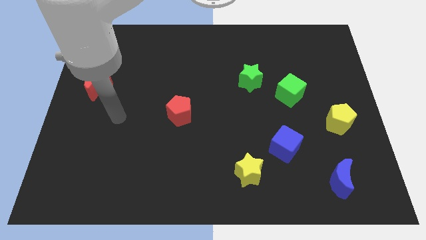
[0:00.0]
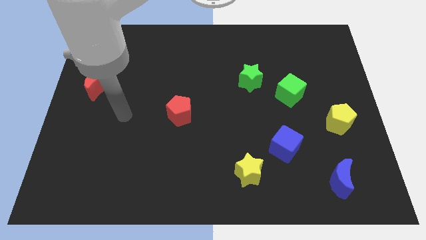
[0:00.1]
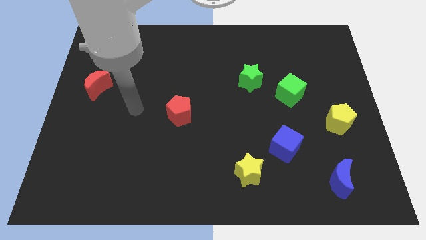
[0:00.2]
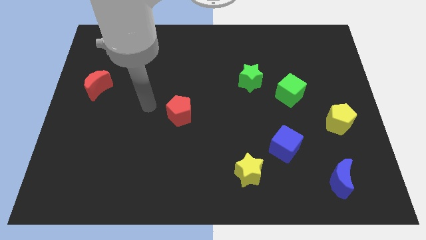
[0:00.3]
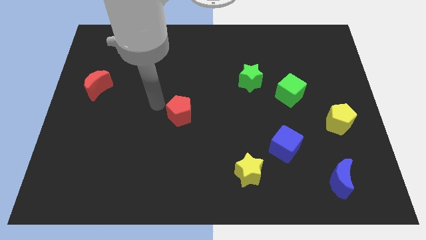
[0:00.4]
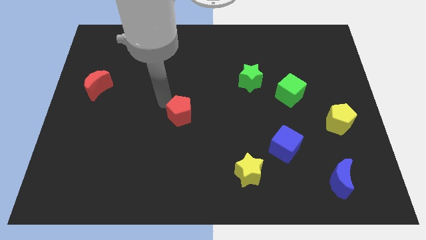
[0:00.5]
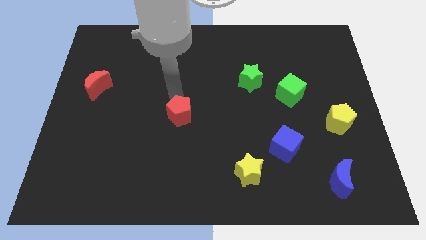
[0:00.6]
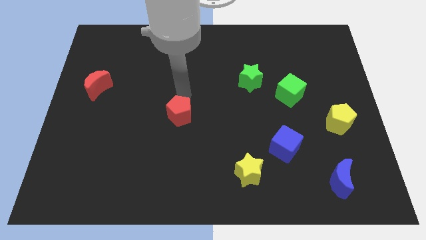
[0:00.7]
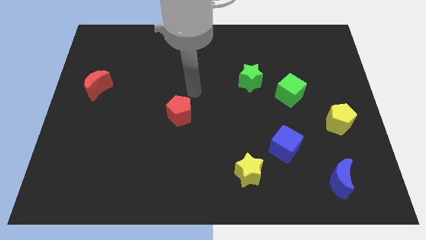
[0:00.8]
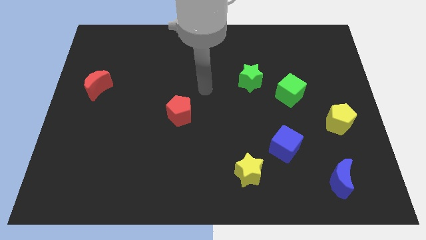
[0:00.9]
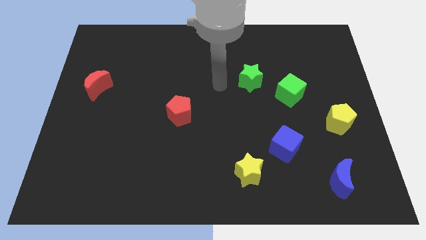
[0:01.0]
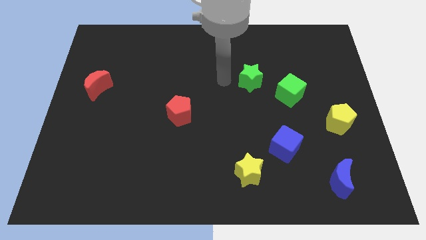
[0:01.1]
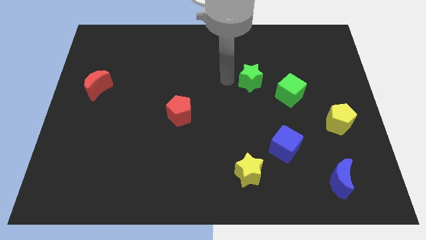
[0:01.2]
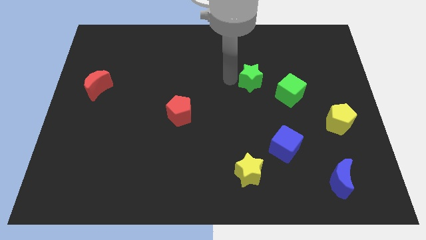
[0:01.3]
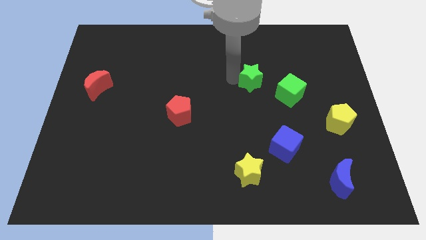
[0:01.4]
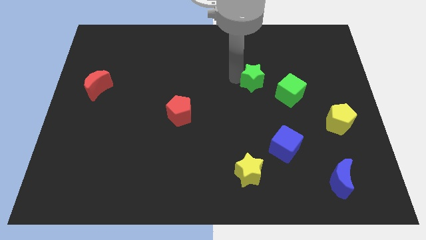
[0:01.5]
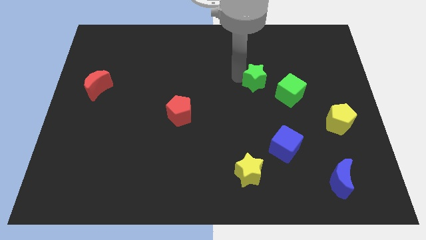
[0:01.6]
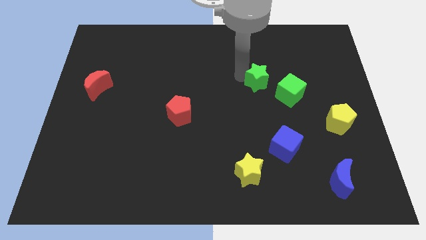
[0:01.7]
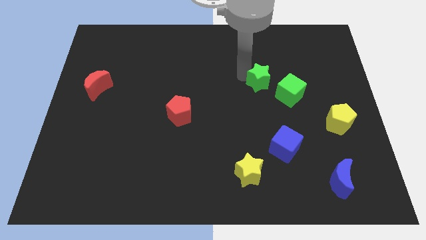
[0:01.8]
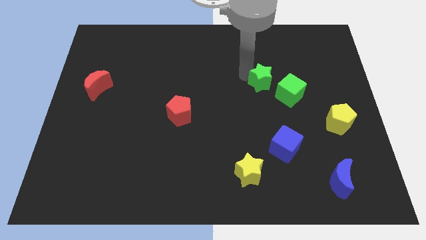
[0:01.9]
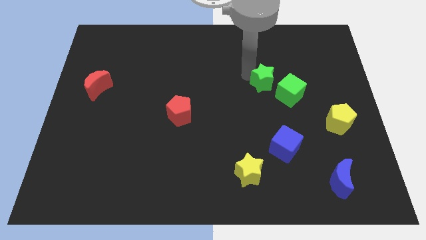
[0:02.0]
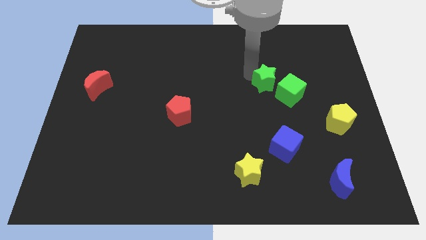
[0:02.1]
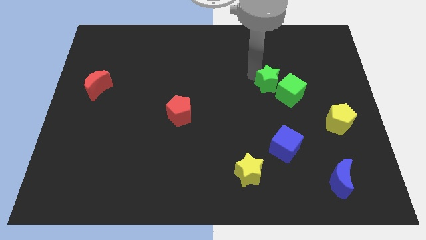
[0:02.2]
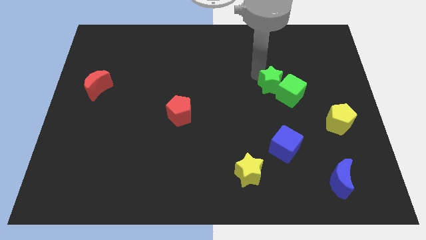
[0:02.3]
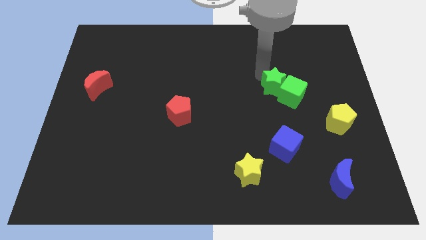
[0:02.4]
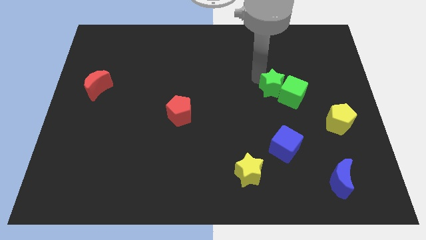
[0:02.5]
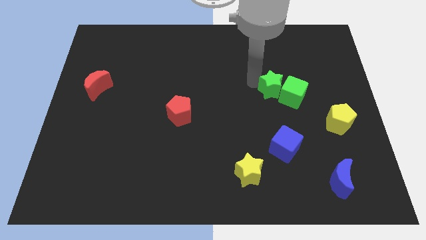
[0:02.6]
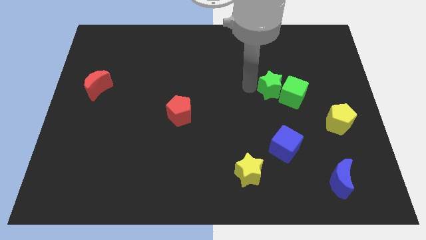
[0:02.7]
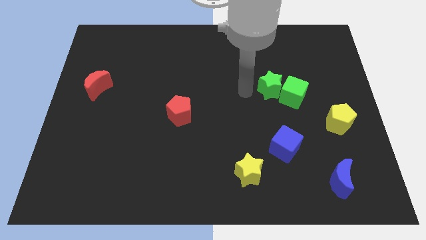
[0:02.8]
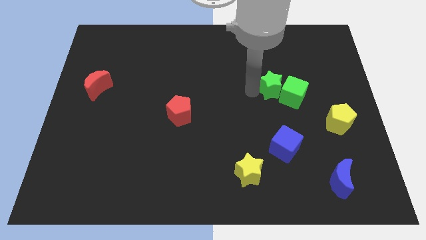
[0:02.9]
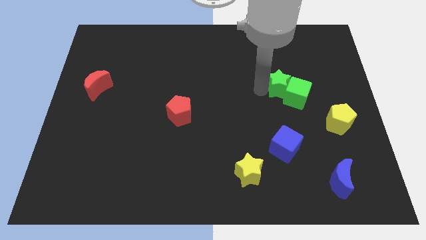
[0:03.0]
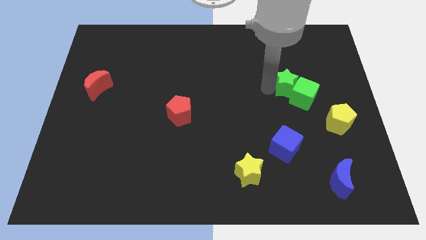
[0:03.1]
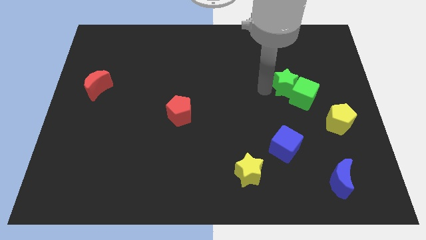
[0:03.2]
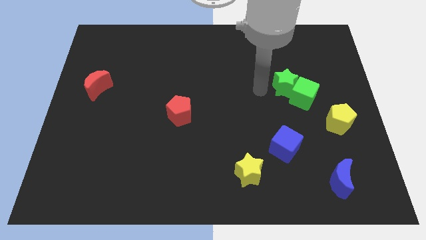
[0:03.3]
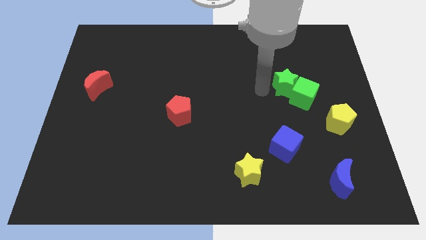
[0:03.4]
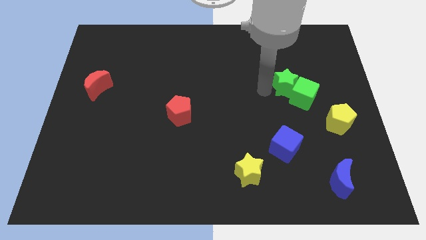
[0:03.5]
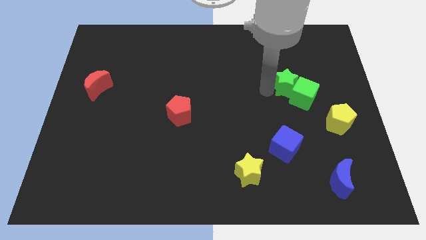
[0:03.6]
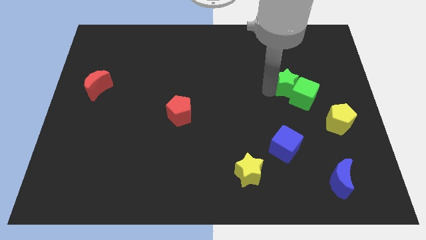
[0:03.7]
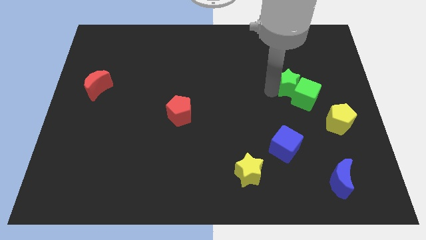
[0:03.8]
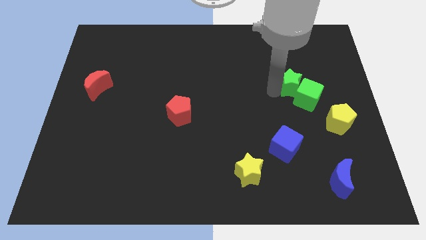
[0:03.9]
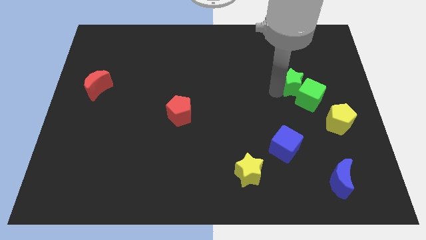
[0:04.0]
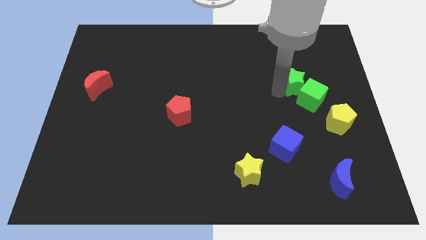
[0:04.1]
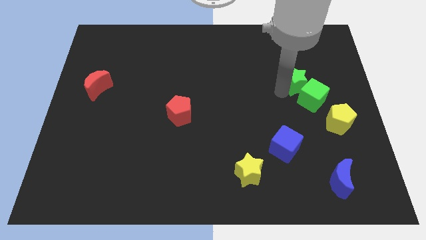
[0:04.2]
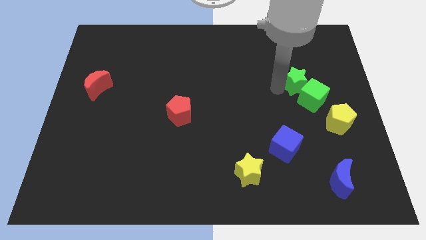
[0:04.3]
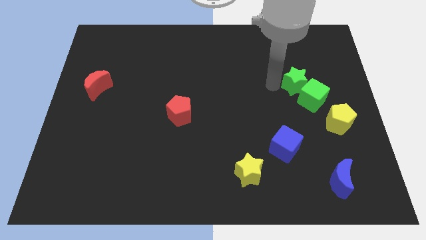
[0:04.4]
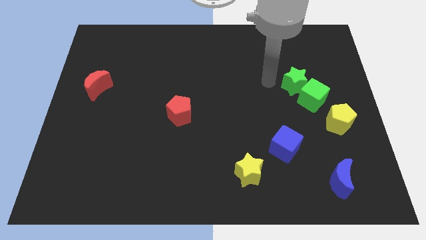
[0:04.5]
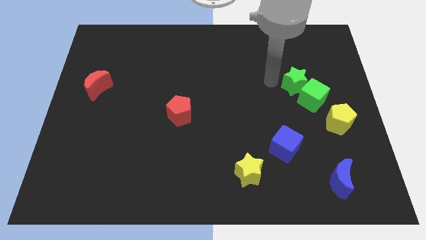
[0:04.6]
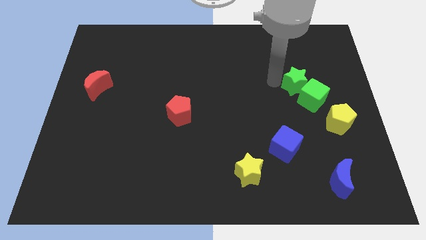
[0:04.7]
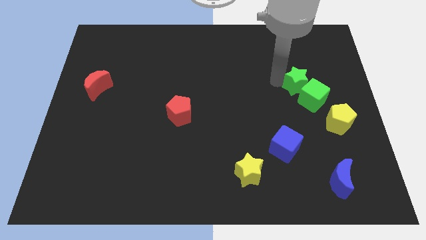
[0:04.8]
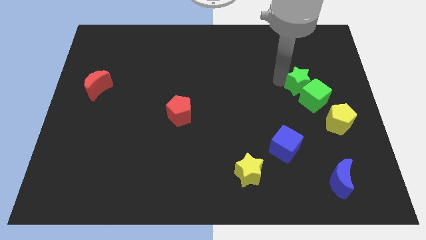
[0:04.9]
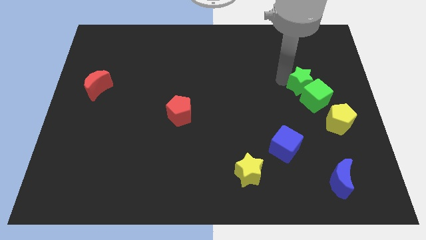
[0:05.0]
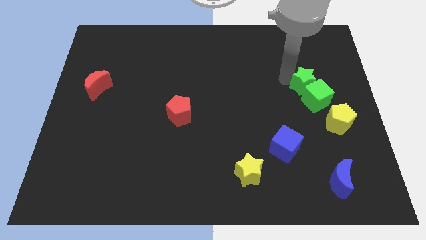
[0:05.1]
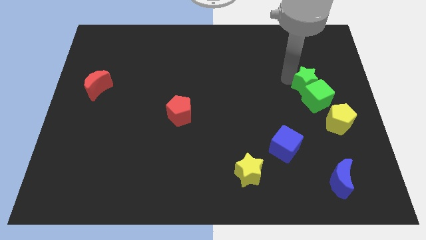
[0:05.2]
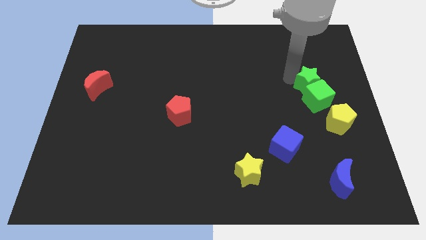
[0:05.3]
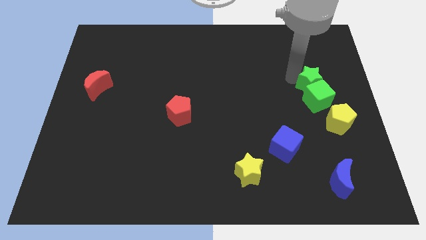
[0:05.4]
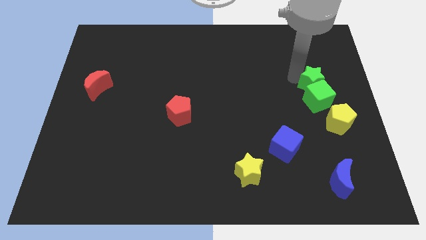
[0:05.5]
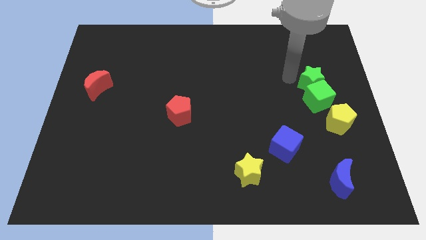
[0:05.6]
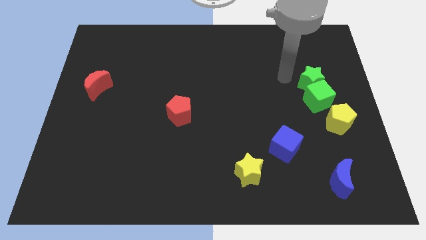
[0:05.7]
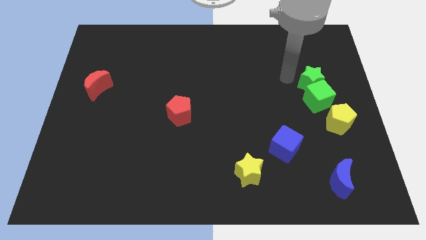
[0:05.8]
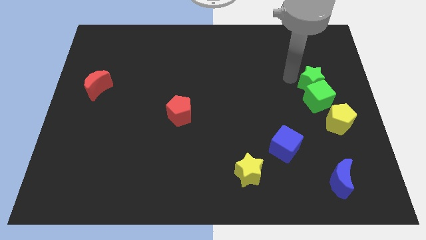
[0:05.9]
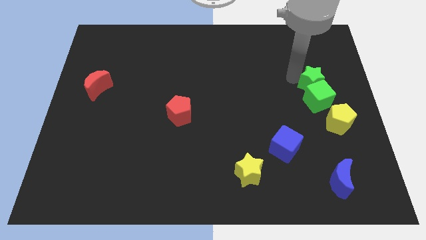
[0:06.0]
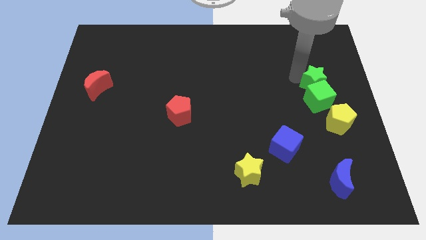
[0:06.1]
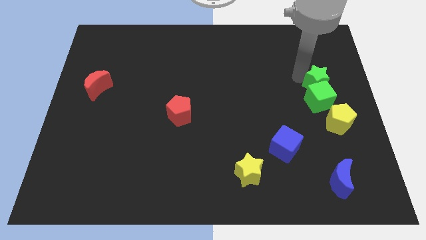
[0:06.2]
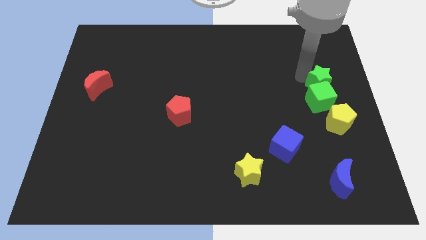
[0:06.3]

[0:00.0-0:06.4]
move the green star to the right side of the board
